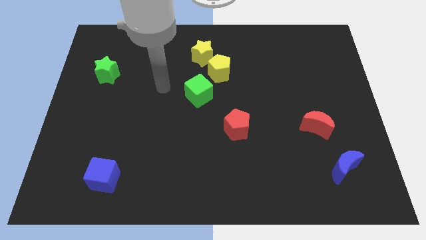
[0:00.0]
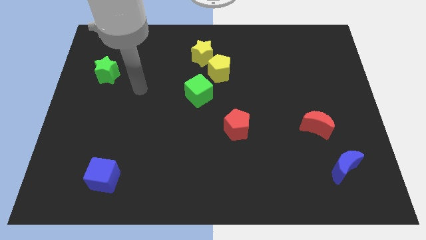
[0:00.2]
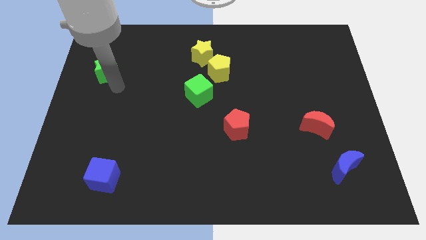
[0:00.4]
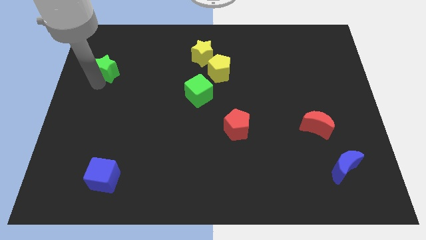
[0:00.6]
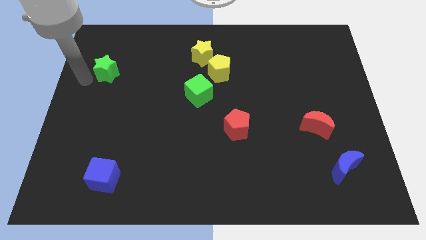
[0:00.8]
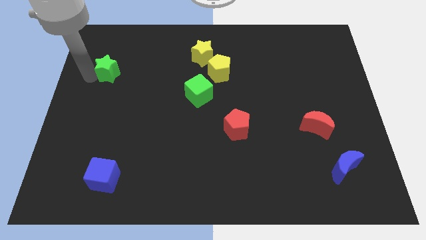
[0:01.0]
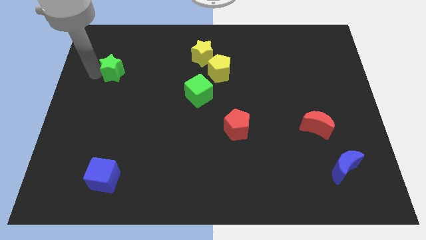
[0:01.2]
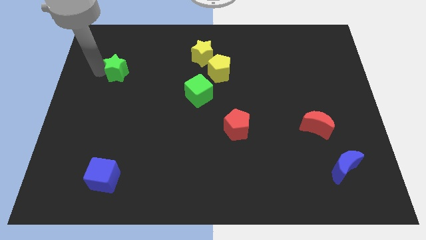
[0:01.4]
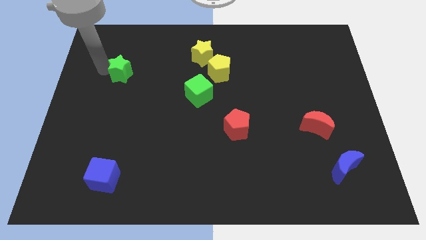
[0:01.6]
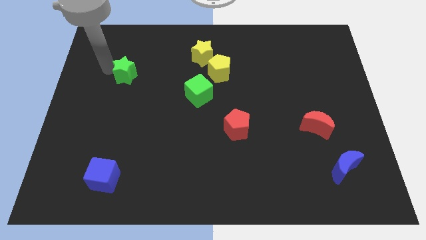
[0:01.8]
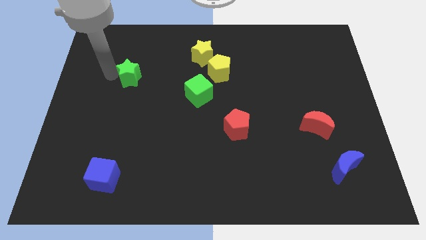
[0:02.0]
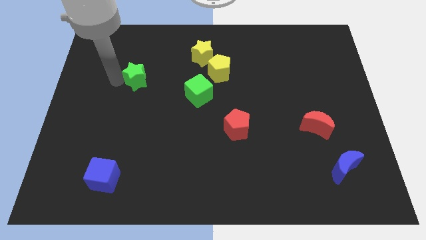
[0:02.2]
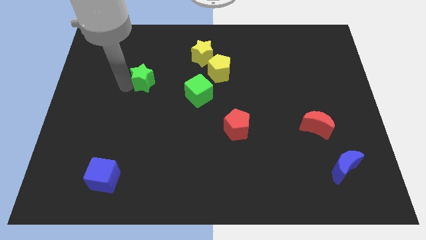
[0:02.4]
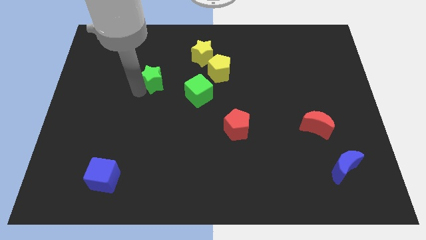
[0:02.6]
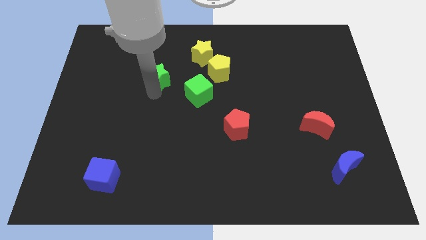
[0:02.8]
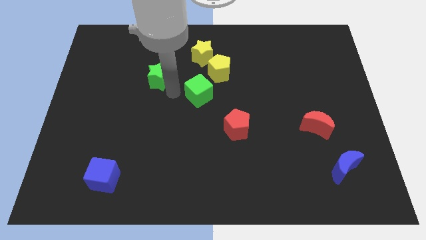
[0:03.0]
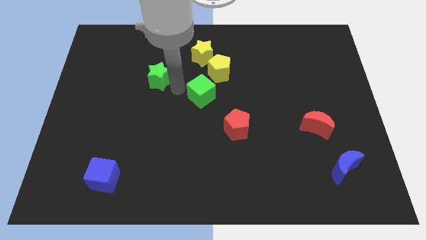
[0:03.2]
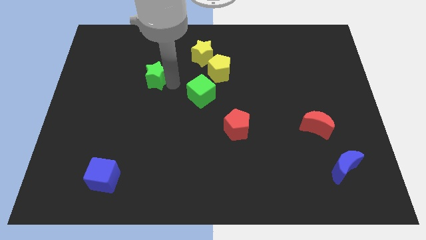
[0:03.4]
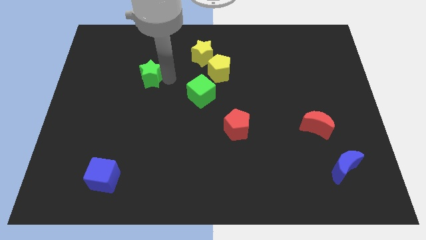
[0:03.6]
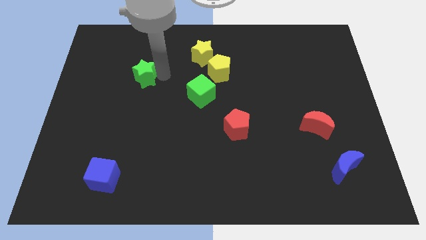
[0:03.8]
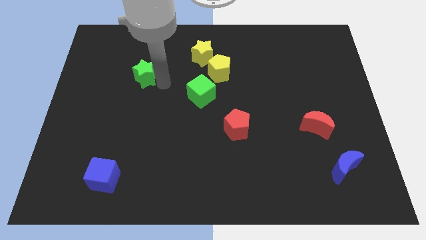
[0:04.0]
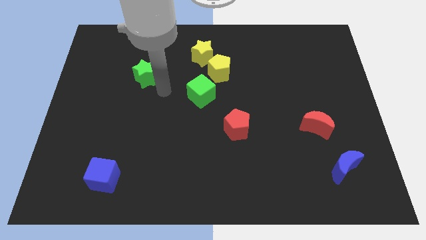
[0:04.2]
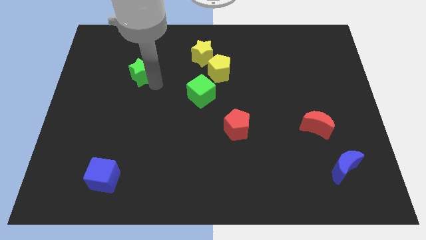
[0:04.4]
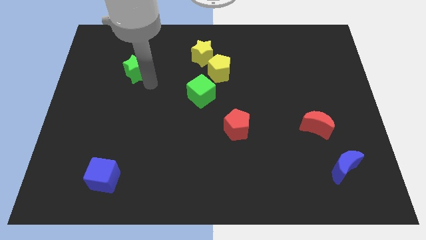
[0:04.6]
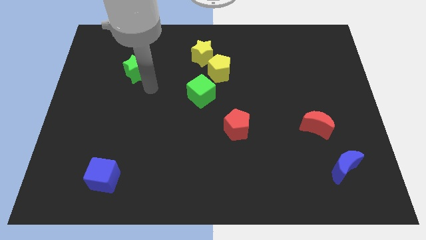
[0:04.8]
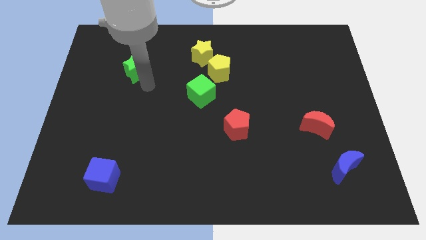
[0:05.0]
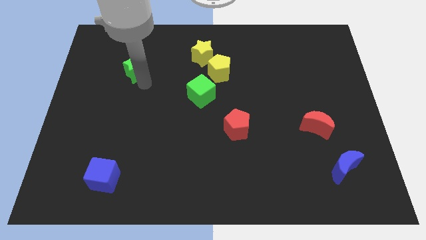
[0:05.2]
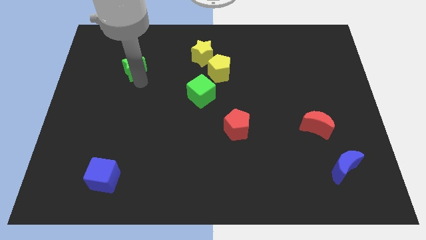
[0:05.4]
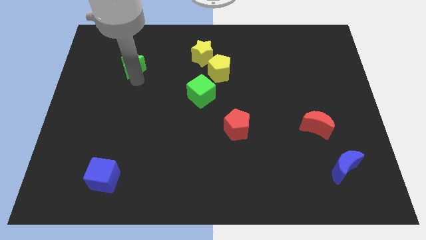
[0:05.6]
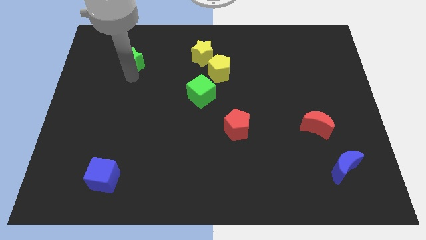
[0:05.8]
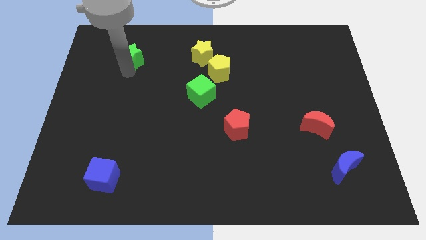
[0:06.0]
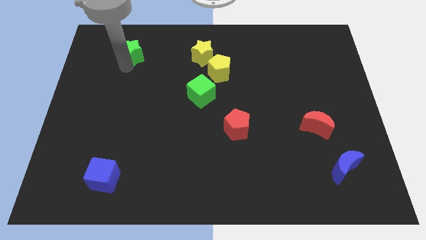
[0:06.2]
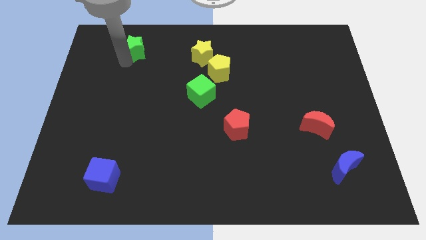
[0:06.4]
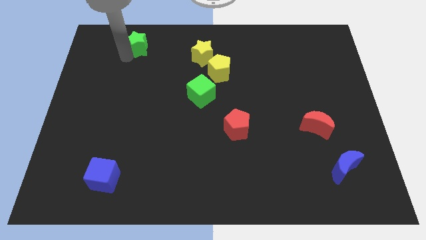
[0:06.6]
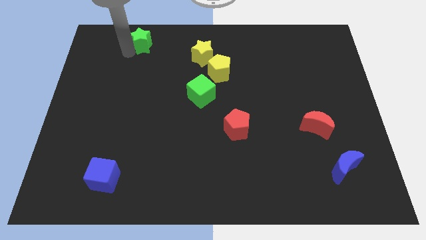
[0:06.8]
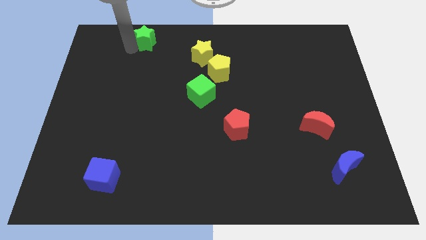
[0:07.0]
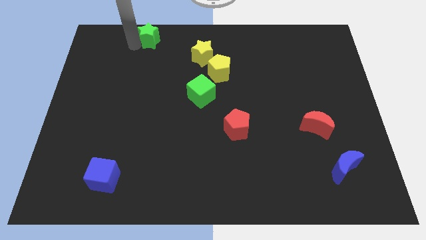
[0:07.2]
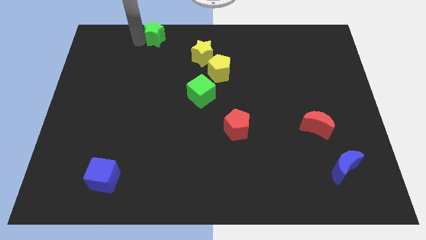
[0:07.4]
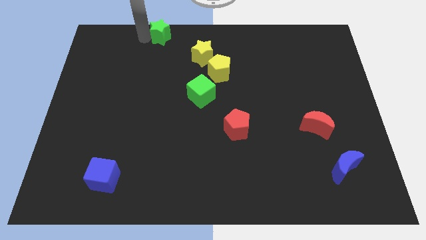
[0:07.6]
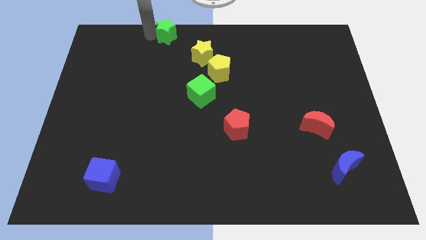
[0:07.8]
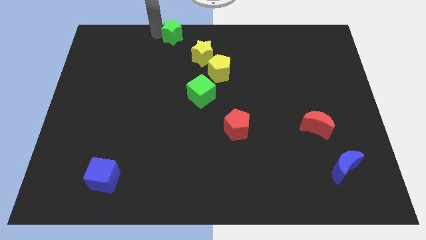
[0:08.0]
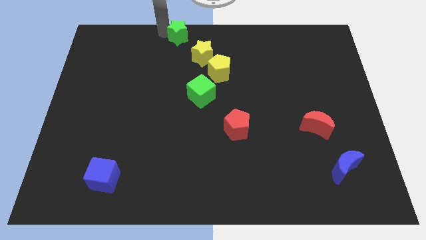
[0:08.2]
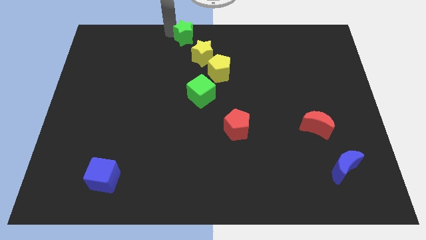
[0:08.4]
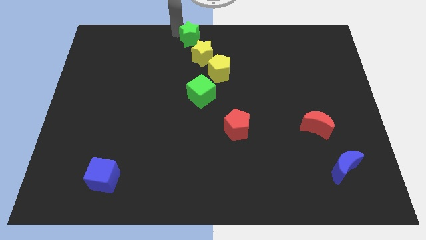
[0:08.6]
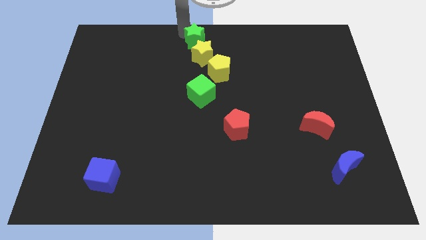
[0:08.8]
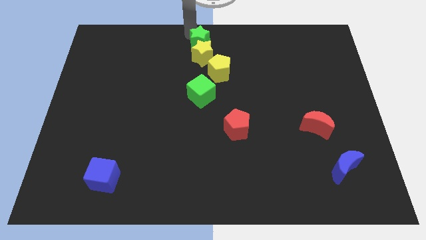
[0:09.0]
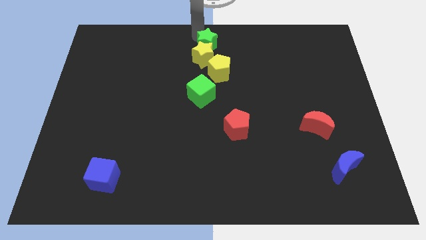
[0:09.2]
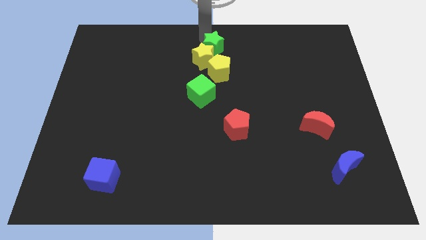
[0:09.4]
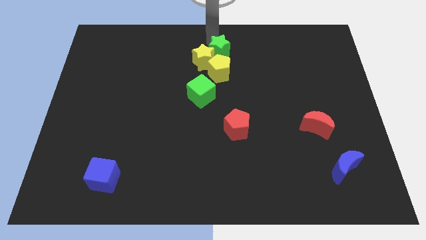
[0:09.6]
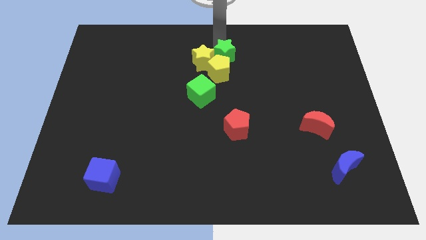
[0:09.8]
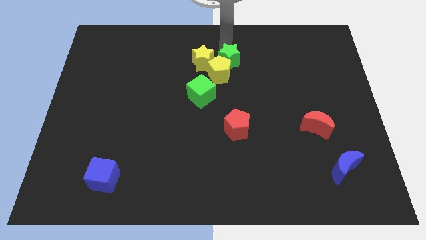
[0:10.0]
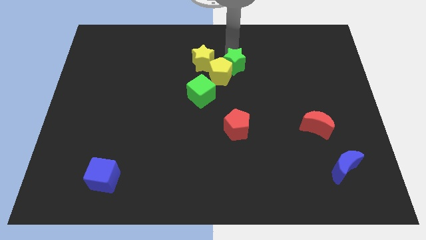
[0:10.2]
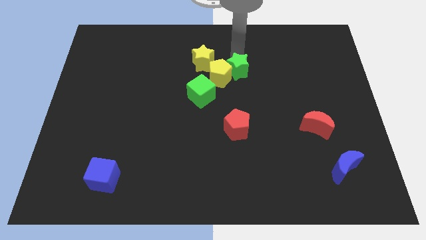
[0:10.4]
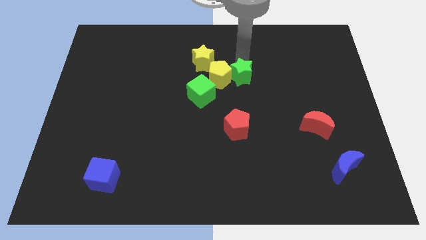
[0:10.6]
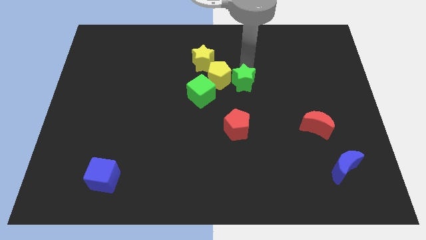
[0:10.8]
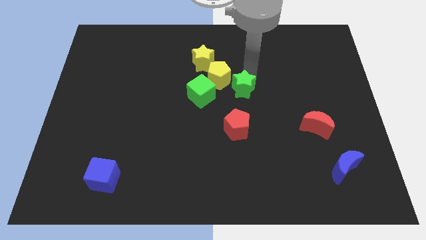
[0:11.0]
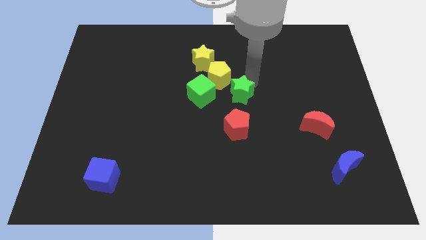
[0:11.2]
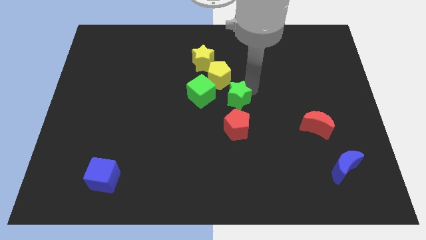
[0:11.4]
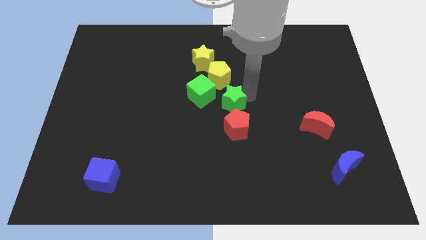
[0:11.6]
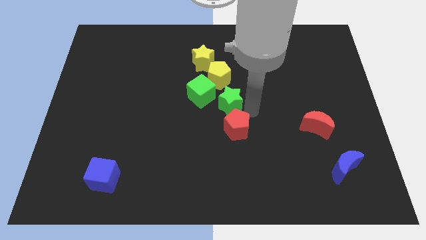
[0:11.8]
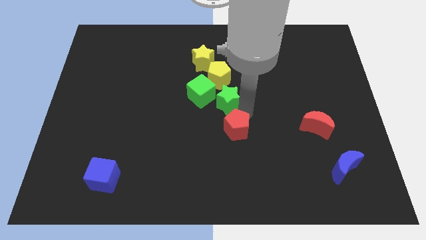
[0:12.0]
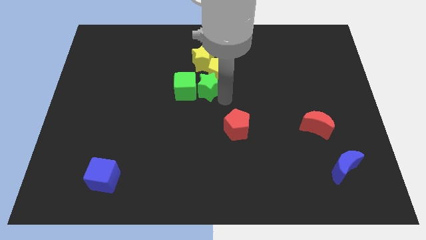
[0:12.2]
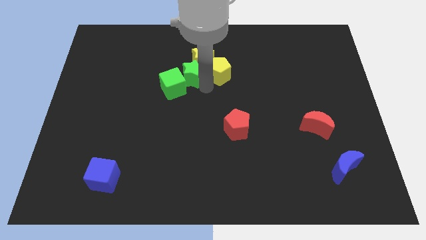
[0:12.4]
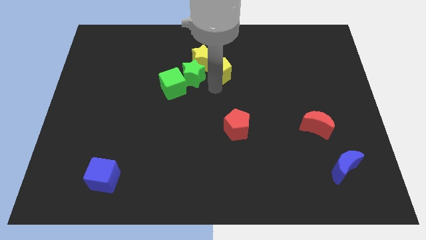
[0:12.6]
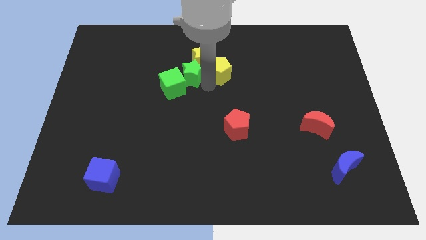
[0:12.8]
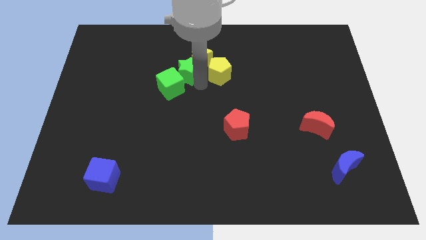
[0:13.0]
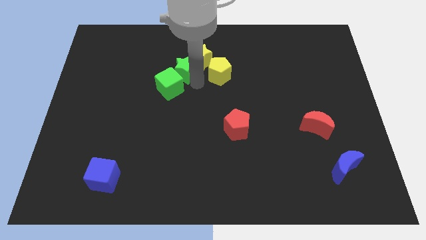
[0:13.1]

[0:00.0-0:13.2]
move the green star left of the yellow star

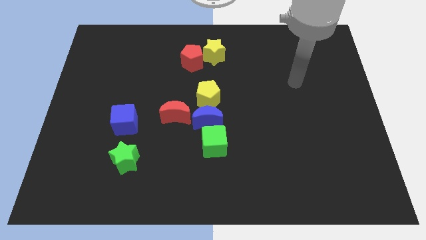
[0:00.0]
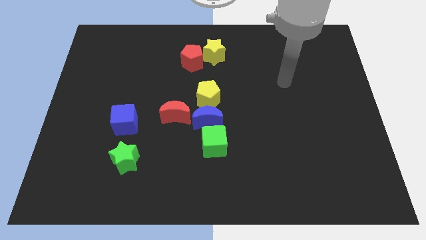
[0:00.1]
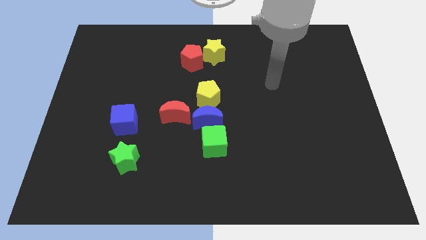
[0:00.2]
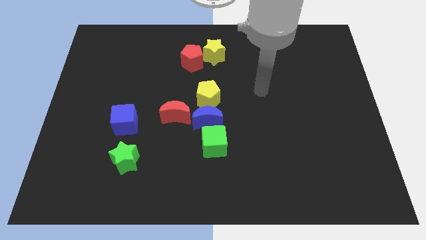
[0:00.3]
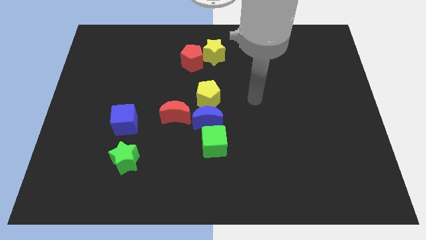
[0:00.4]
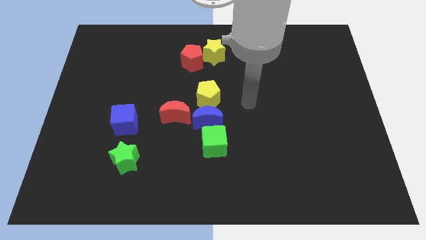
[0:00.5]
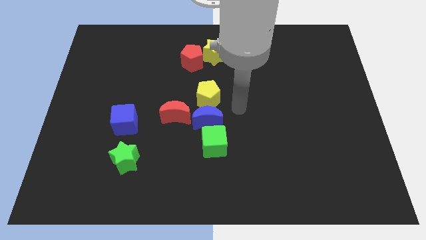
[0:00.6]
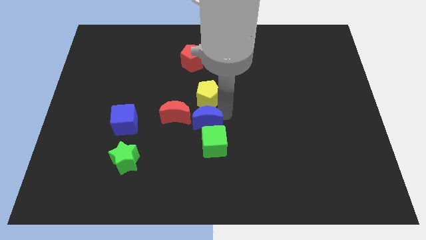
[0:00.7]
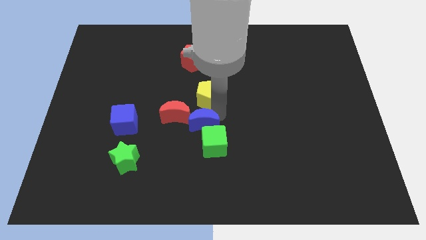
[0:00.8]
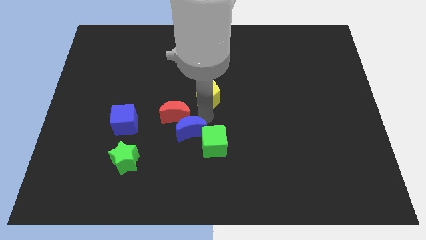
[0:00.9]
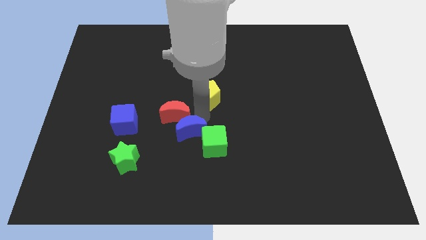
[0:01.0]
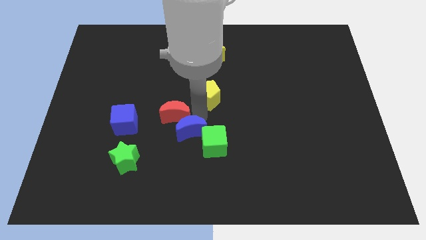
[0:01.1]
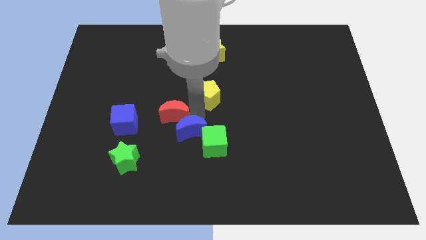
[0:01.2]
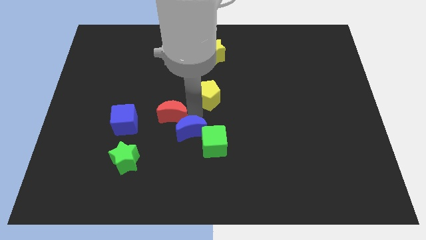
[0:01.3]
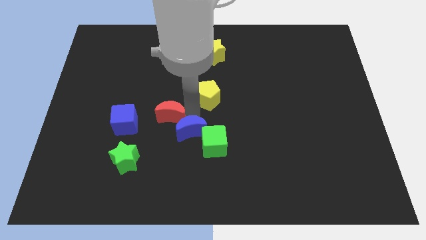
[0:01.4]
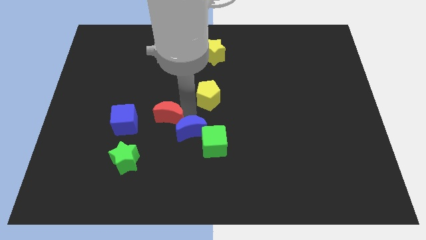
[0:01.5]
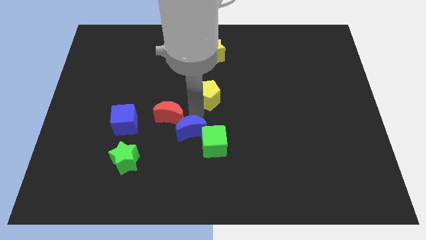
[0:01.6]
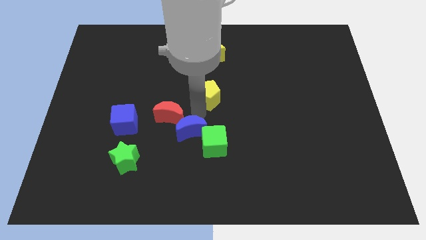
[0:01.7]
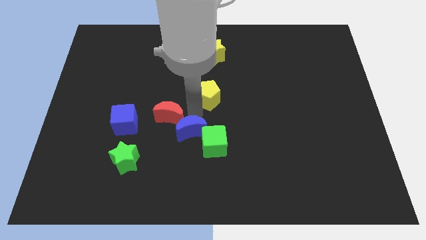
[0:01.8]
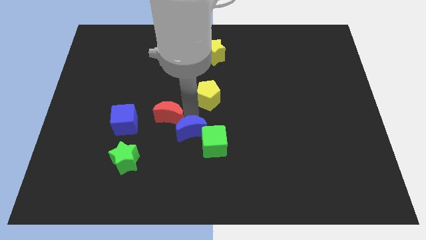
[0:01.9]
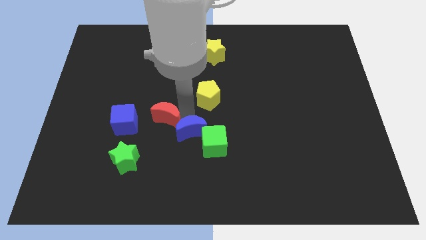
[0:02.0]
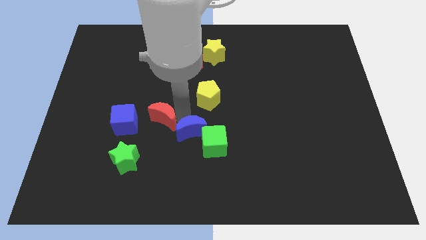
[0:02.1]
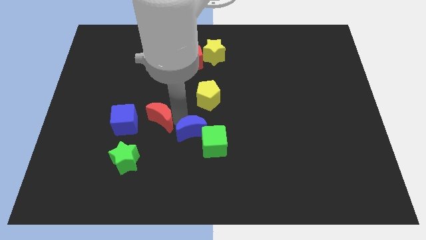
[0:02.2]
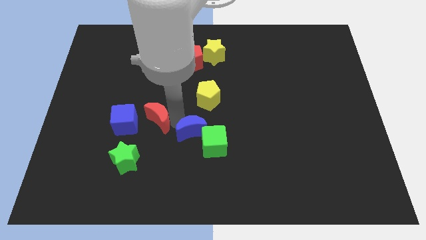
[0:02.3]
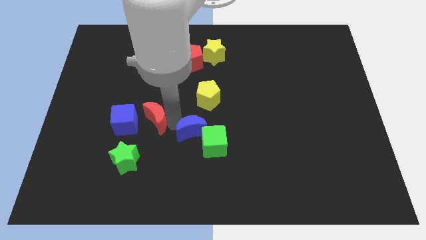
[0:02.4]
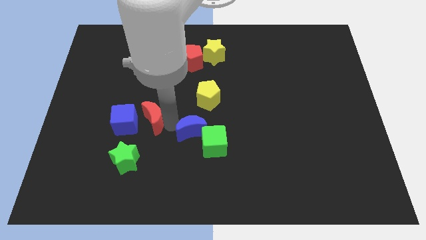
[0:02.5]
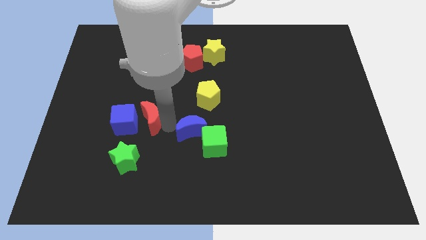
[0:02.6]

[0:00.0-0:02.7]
put the red moon above the green star
